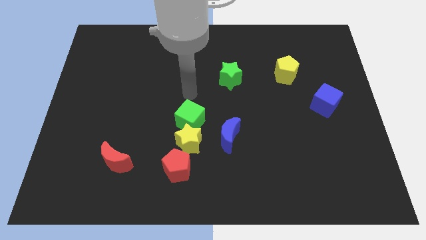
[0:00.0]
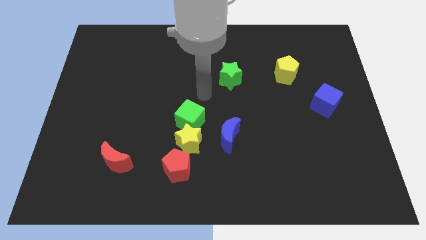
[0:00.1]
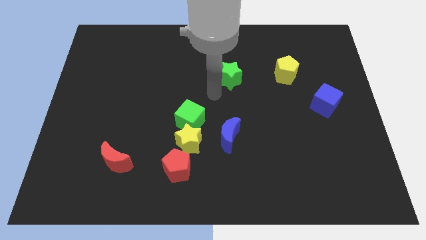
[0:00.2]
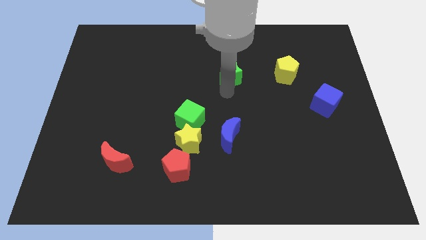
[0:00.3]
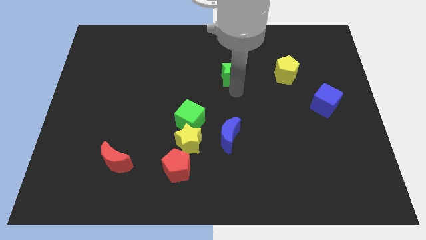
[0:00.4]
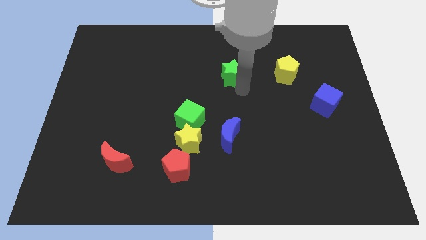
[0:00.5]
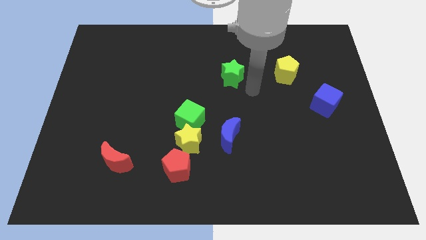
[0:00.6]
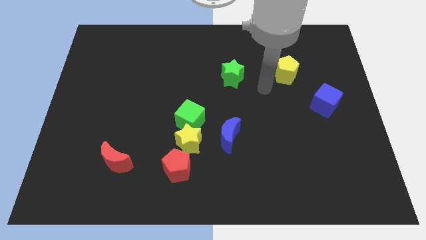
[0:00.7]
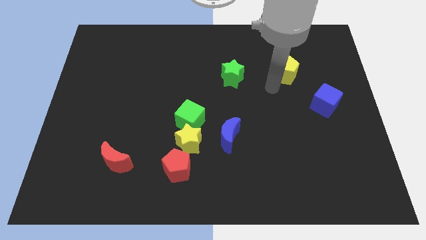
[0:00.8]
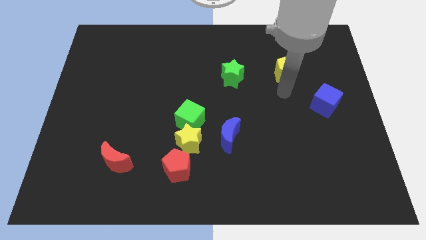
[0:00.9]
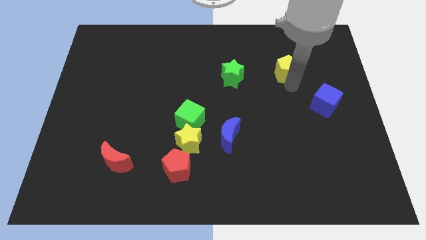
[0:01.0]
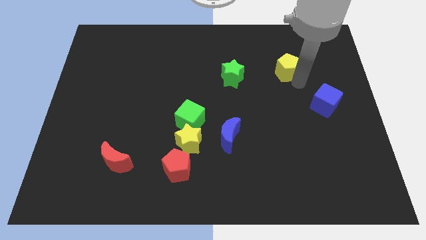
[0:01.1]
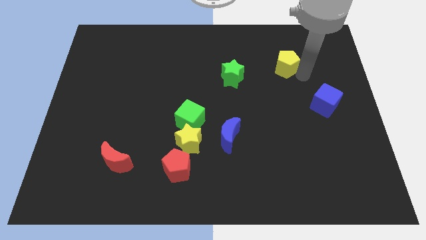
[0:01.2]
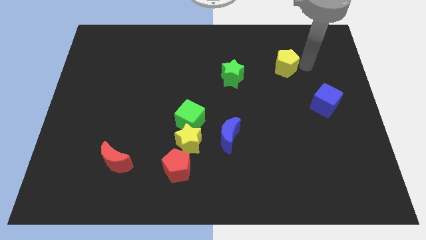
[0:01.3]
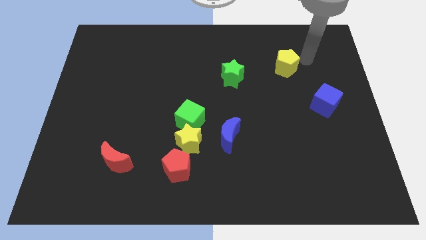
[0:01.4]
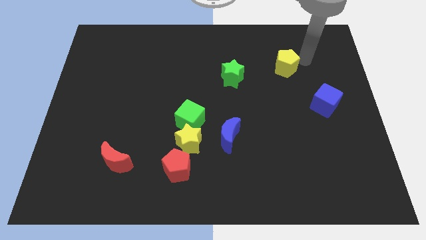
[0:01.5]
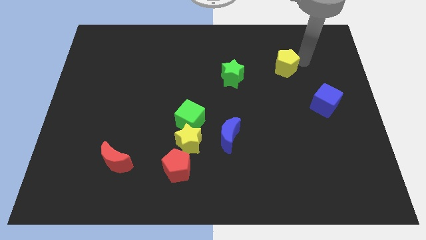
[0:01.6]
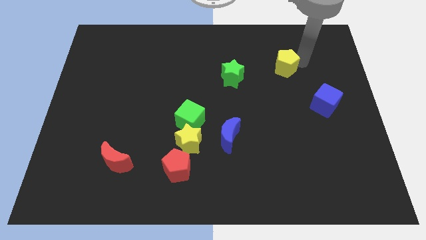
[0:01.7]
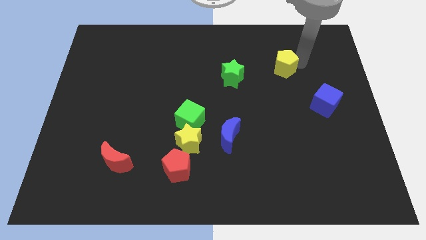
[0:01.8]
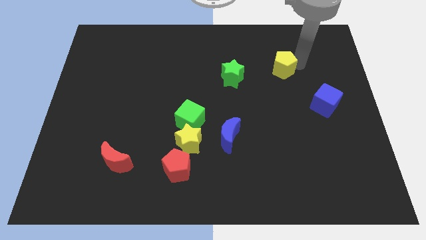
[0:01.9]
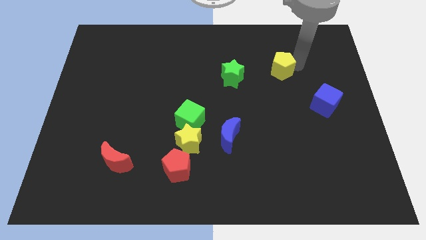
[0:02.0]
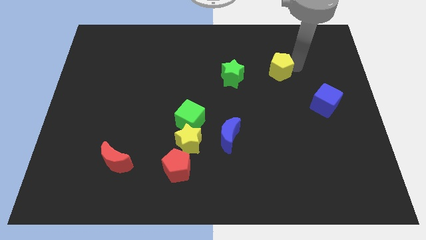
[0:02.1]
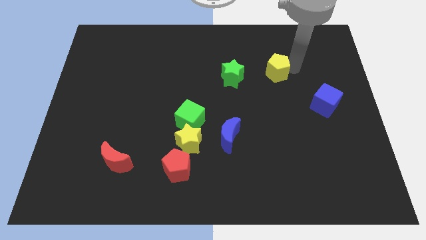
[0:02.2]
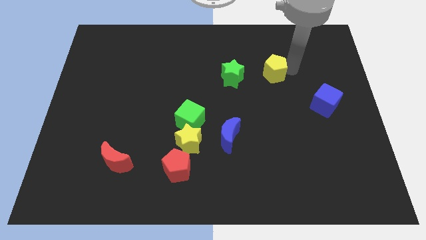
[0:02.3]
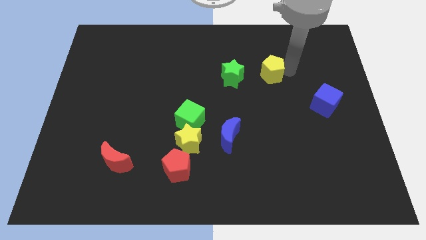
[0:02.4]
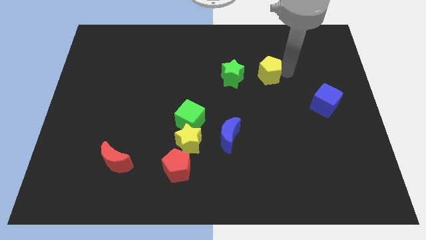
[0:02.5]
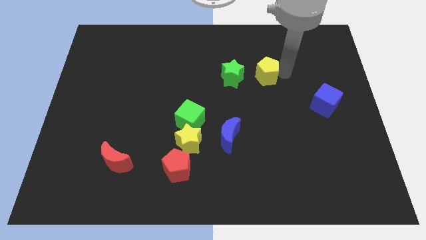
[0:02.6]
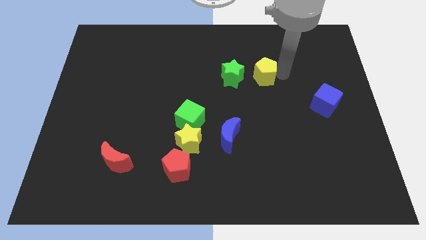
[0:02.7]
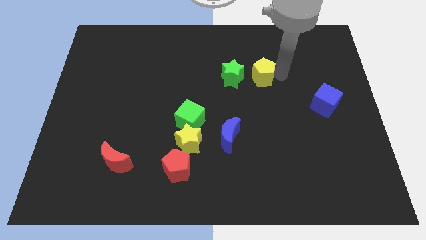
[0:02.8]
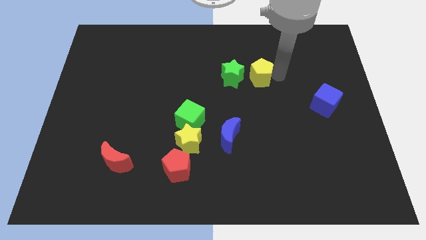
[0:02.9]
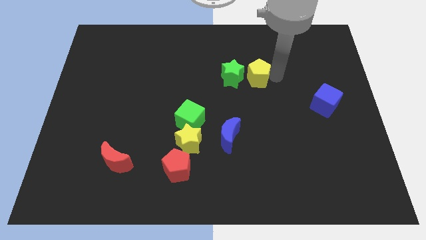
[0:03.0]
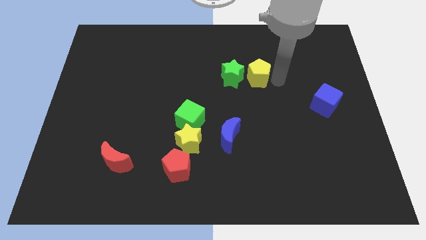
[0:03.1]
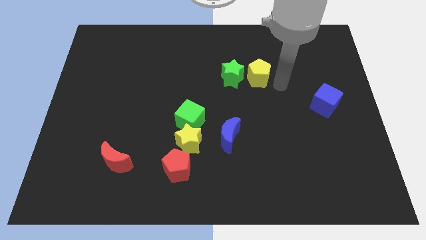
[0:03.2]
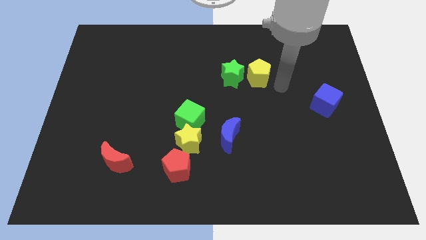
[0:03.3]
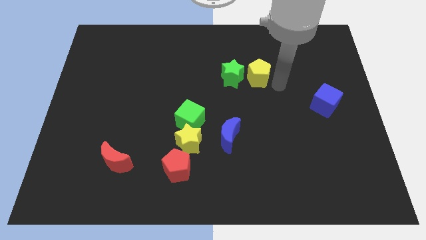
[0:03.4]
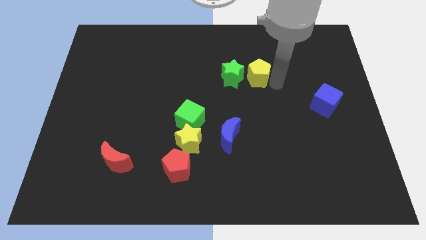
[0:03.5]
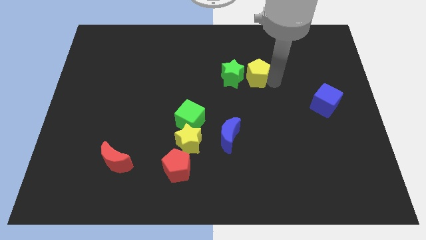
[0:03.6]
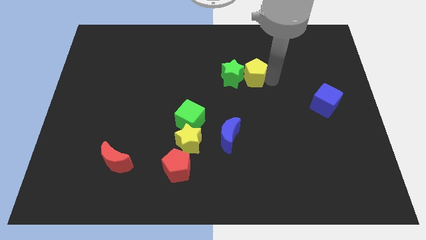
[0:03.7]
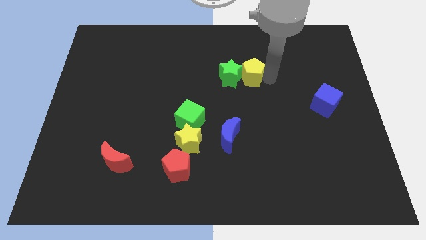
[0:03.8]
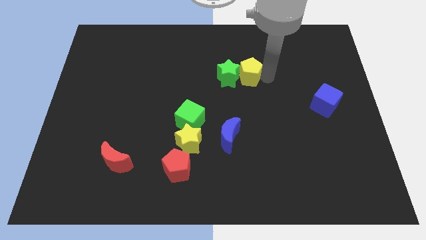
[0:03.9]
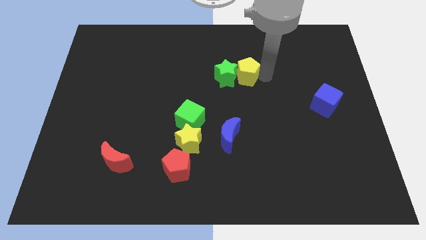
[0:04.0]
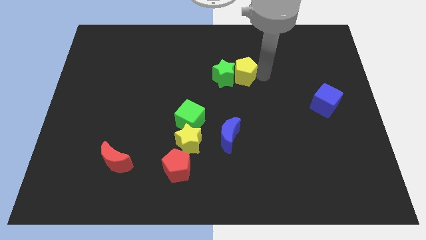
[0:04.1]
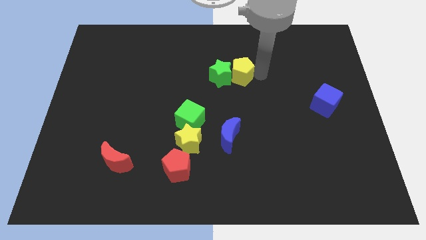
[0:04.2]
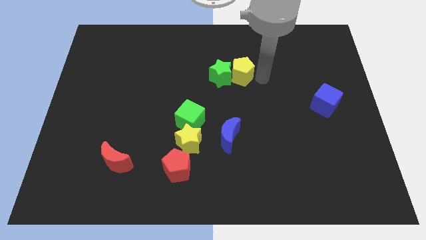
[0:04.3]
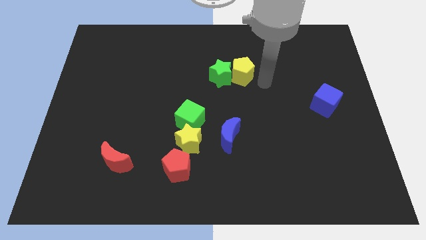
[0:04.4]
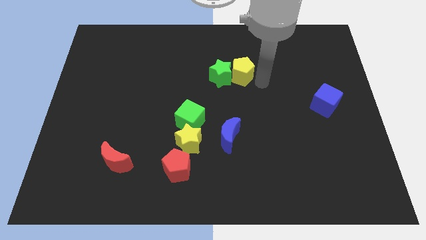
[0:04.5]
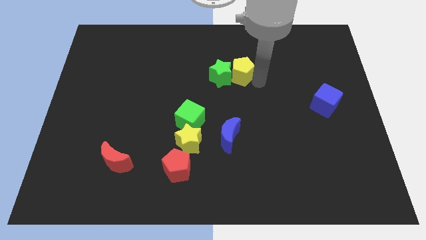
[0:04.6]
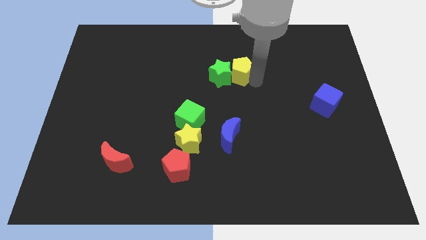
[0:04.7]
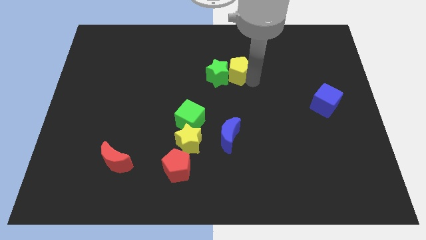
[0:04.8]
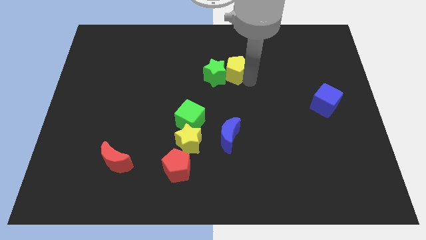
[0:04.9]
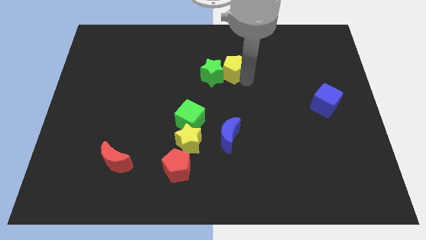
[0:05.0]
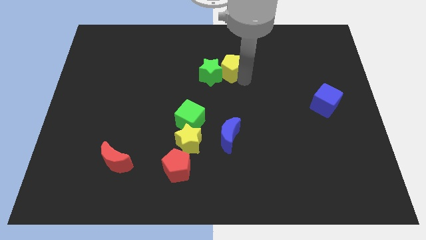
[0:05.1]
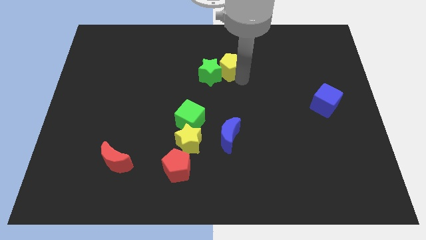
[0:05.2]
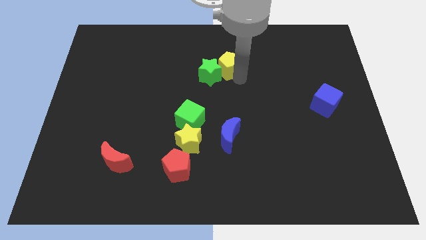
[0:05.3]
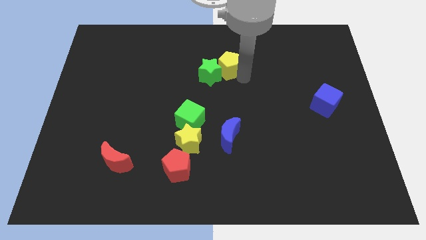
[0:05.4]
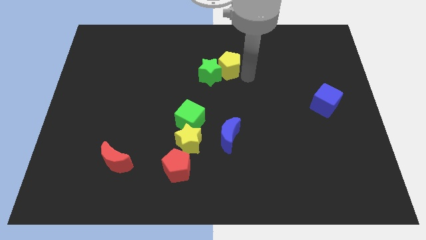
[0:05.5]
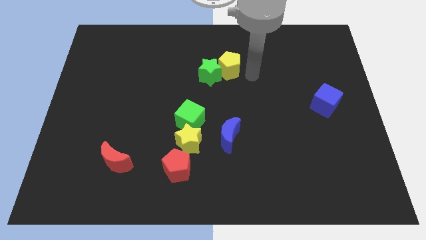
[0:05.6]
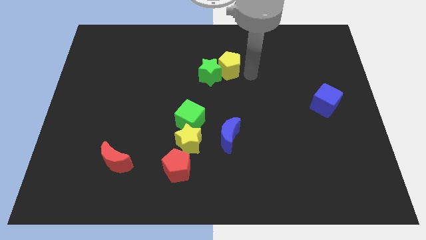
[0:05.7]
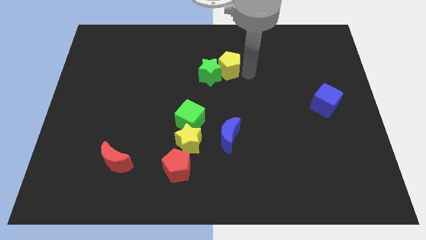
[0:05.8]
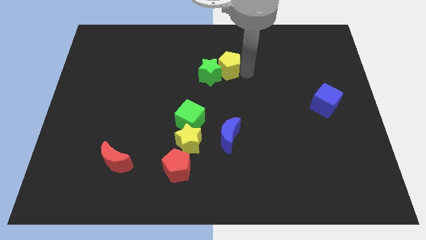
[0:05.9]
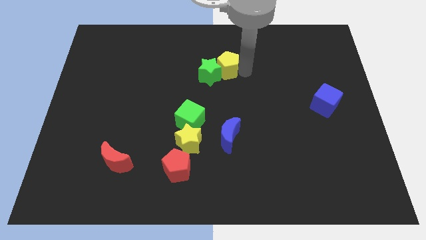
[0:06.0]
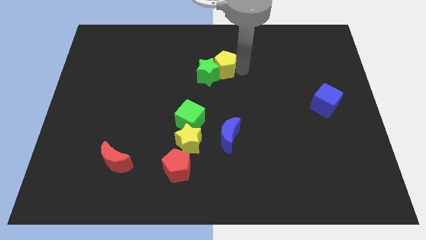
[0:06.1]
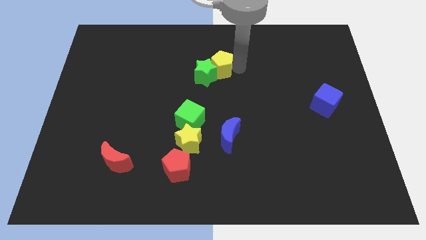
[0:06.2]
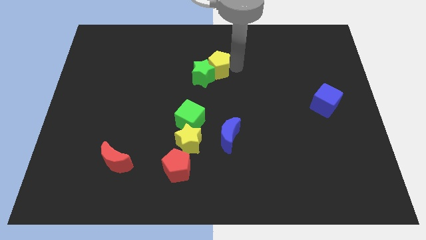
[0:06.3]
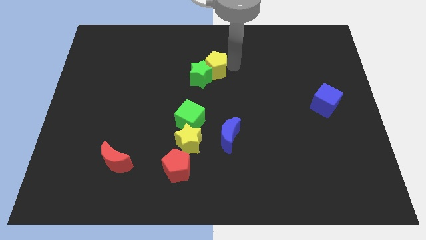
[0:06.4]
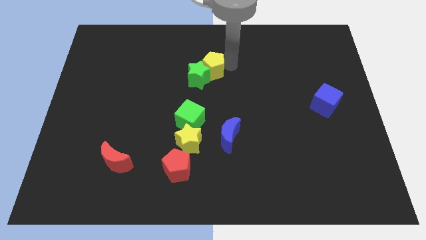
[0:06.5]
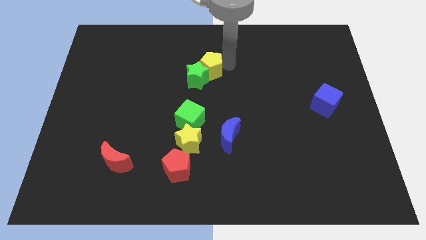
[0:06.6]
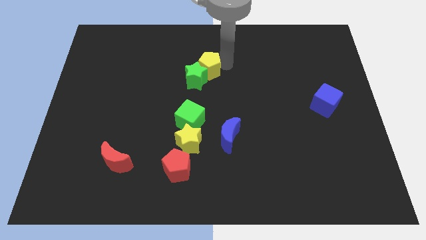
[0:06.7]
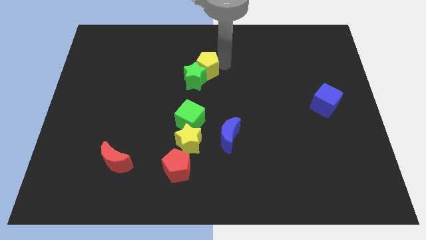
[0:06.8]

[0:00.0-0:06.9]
move the yellow pentagon to the left

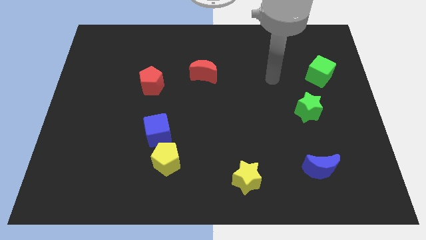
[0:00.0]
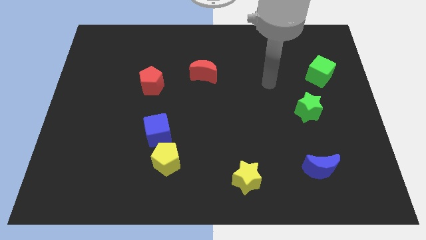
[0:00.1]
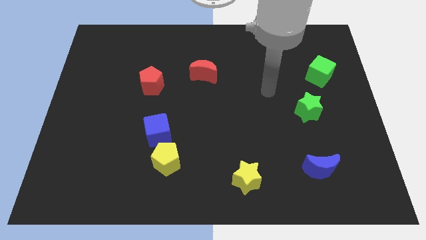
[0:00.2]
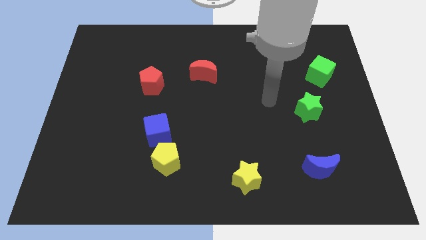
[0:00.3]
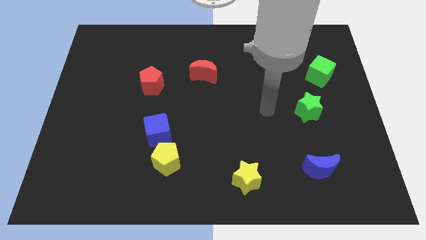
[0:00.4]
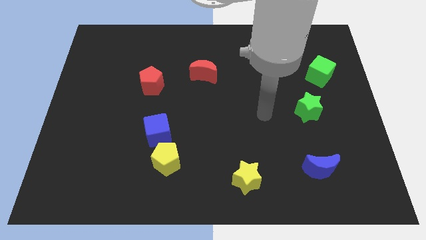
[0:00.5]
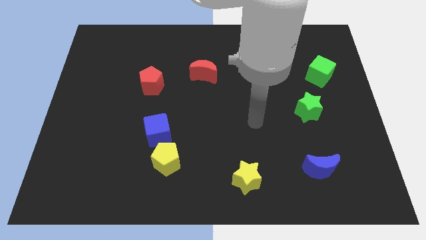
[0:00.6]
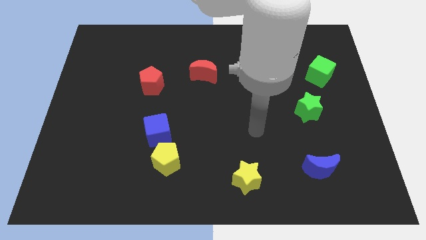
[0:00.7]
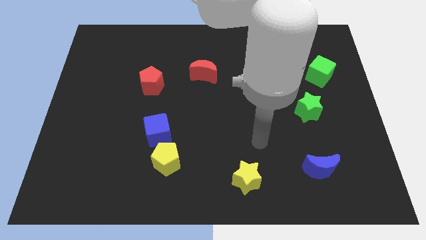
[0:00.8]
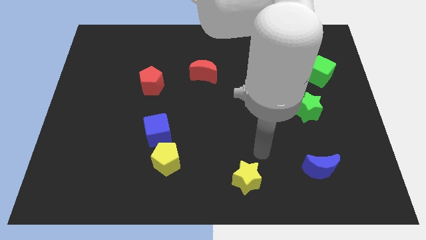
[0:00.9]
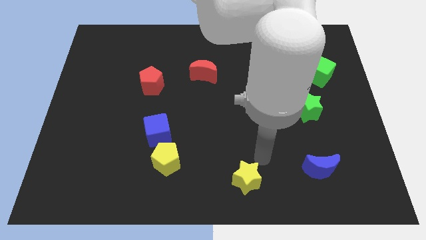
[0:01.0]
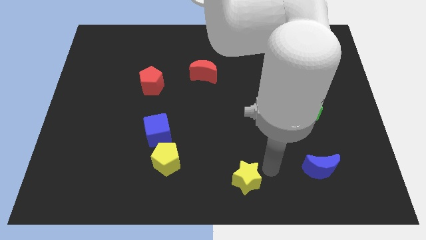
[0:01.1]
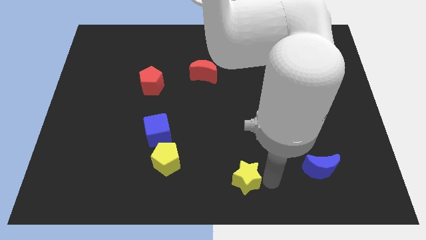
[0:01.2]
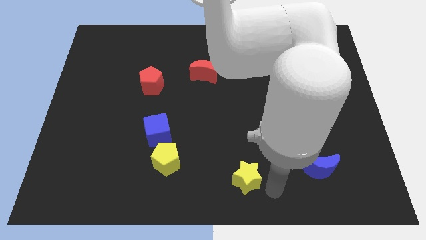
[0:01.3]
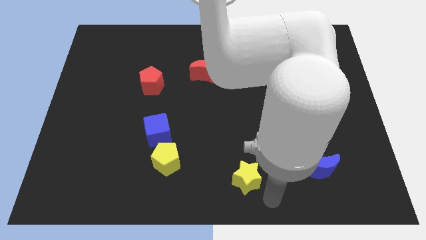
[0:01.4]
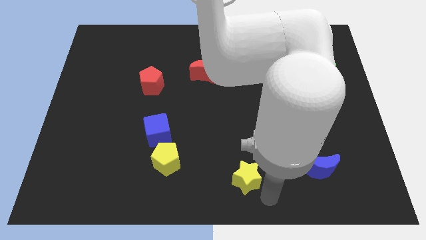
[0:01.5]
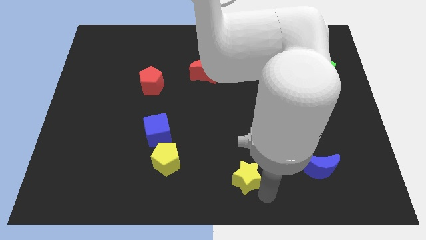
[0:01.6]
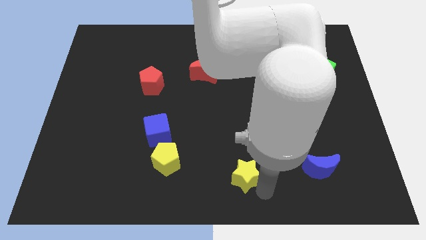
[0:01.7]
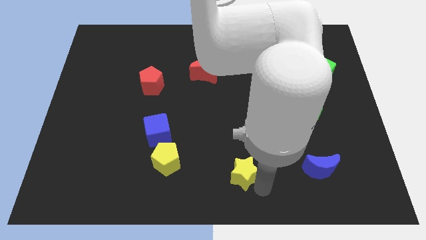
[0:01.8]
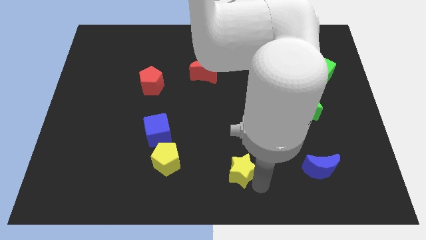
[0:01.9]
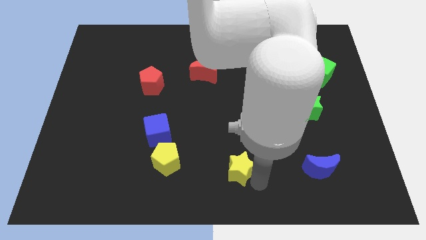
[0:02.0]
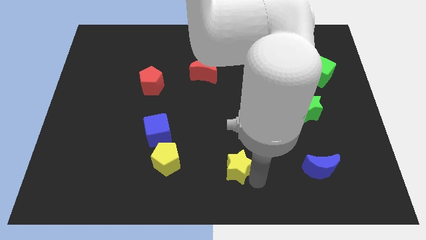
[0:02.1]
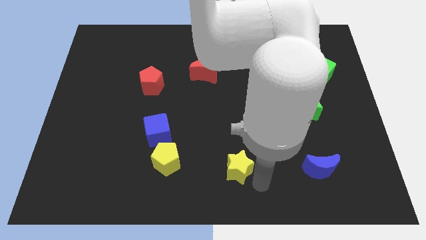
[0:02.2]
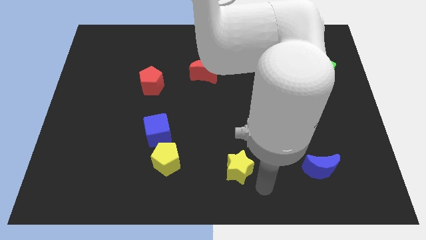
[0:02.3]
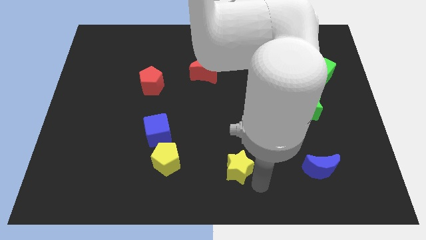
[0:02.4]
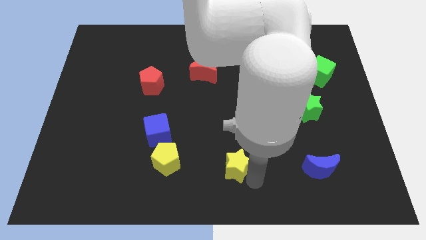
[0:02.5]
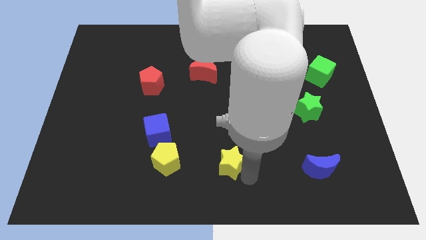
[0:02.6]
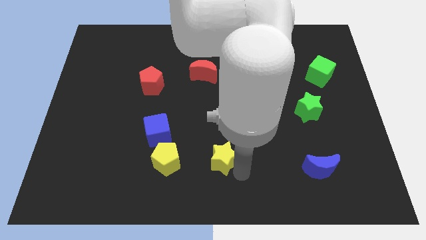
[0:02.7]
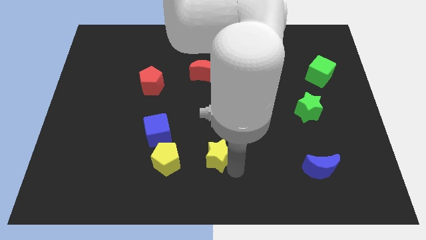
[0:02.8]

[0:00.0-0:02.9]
slightly move the yellow star upwards and to the left diagonally
